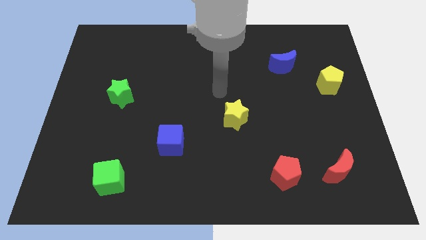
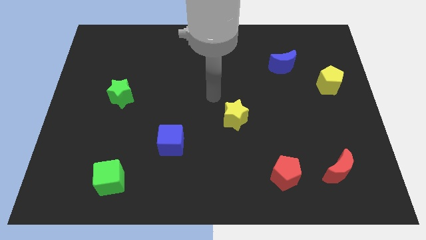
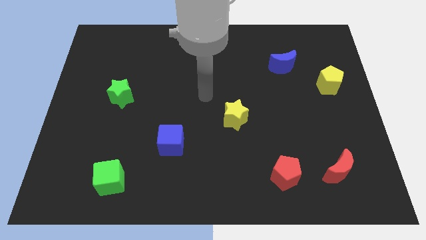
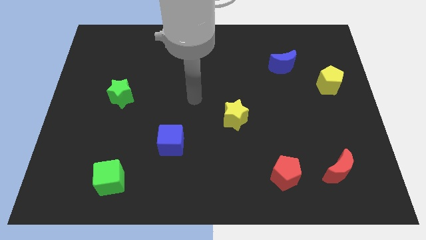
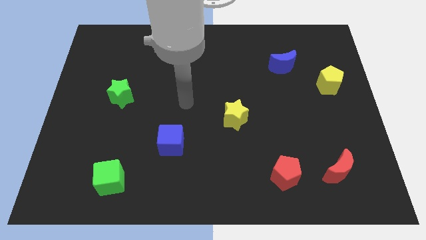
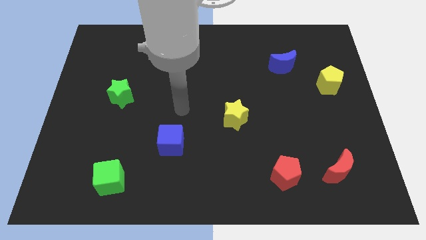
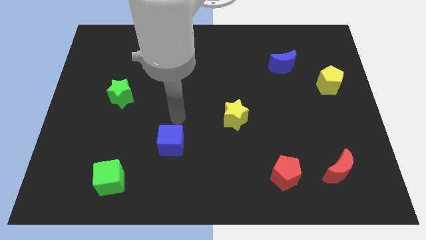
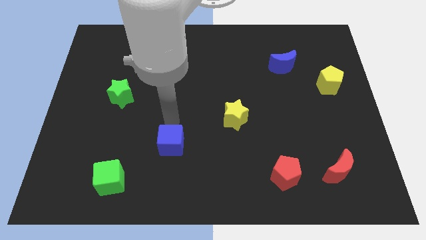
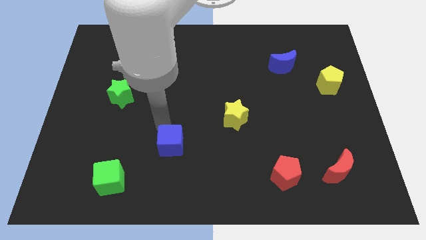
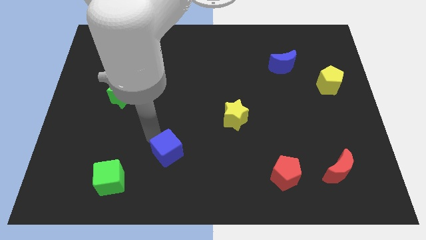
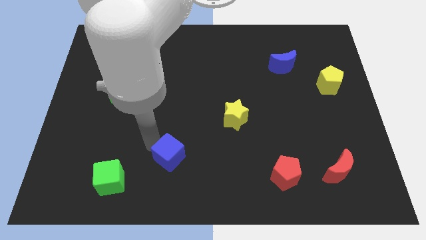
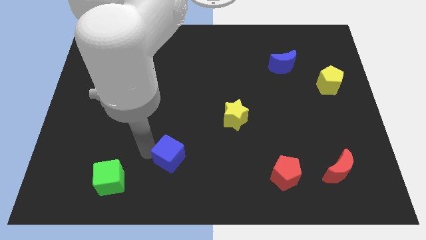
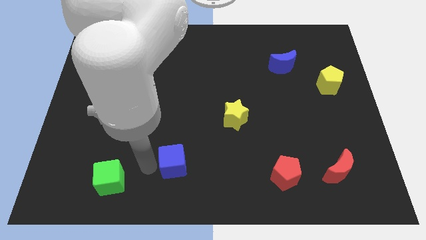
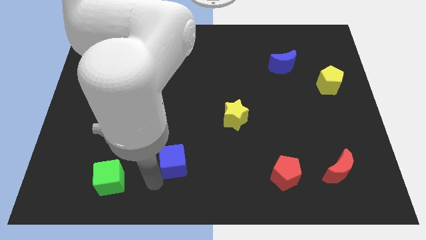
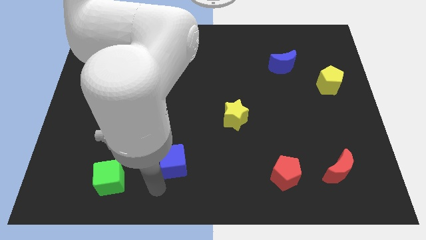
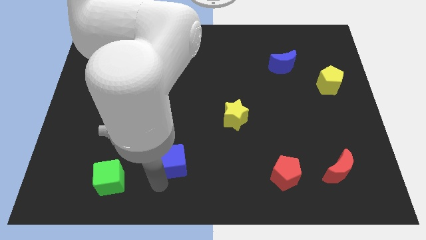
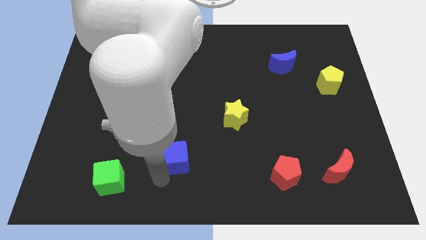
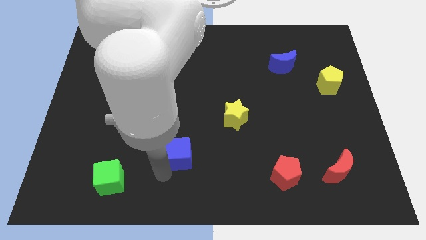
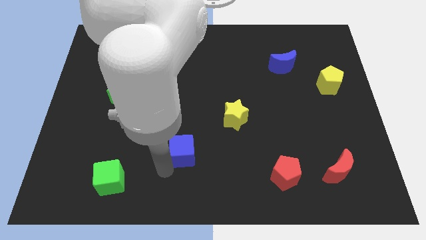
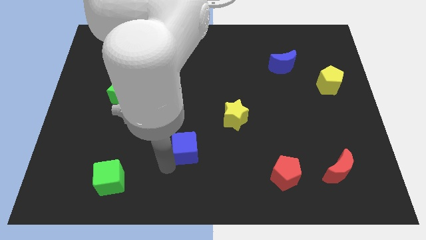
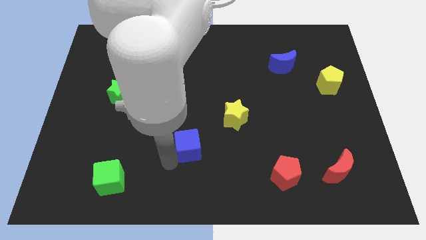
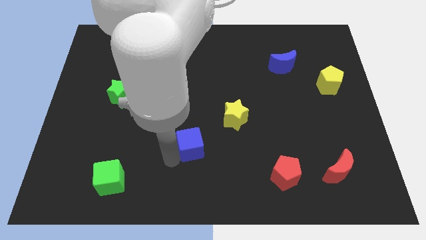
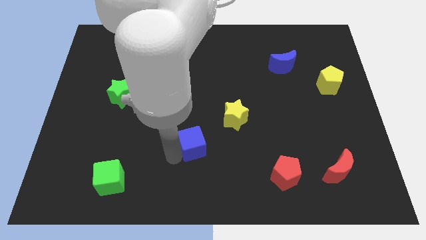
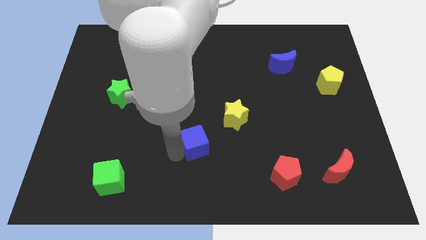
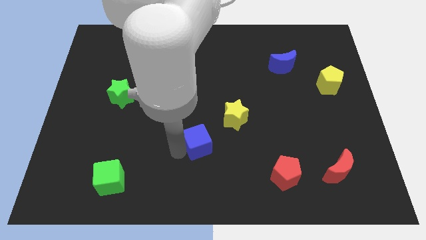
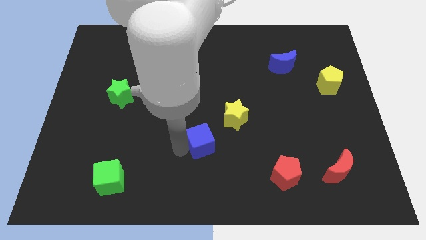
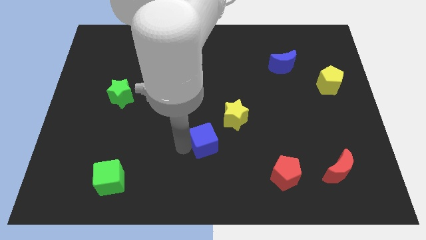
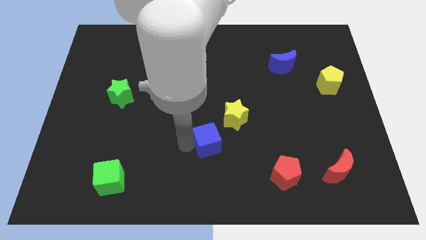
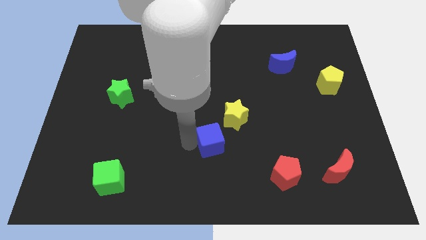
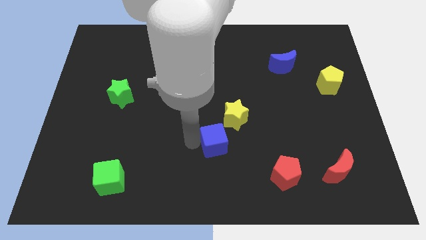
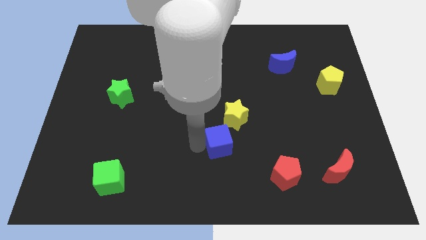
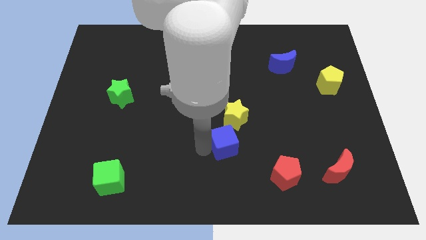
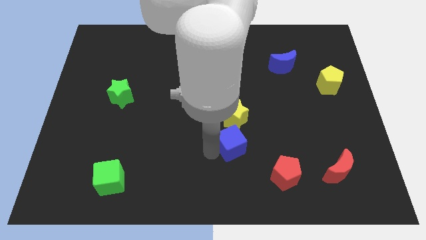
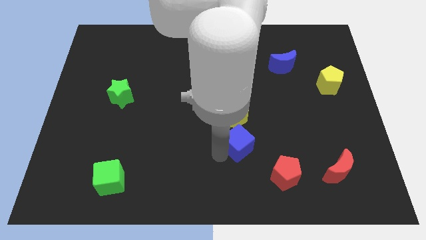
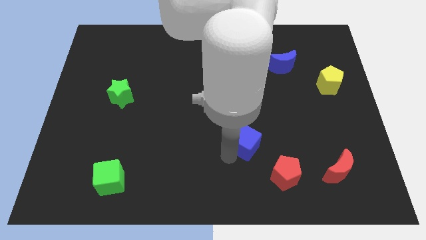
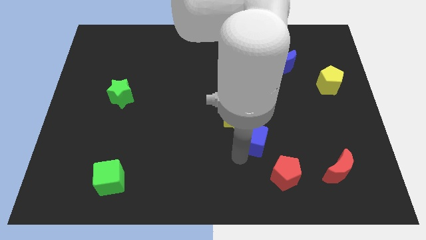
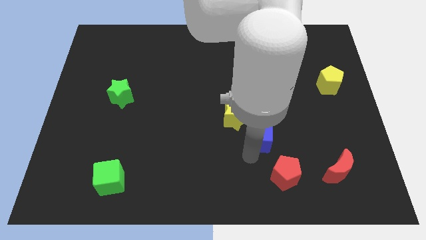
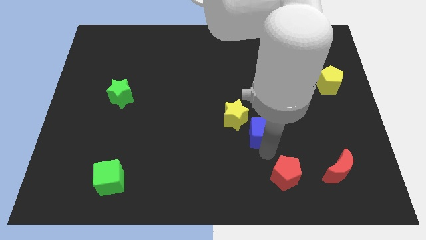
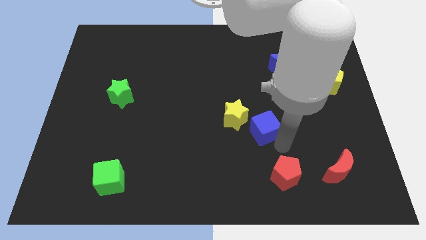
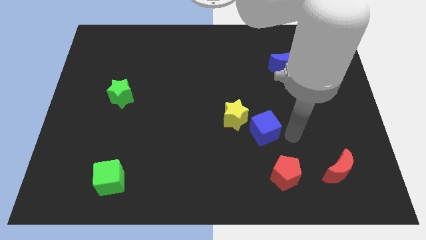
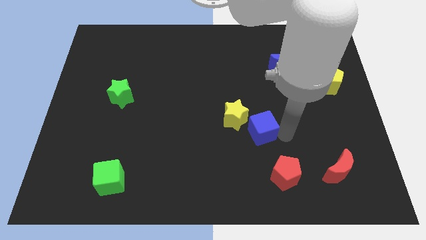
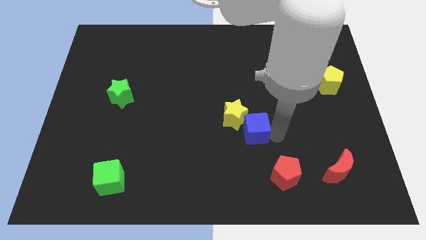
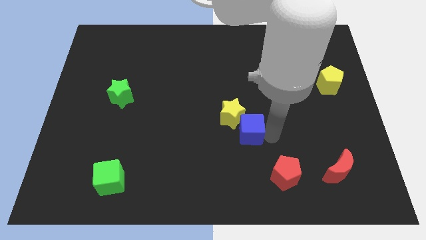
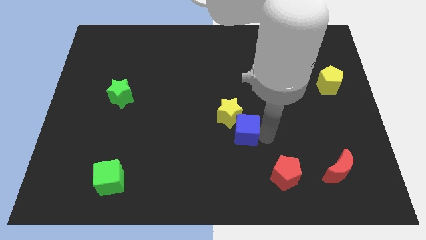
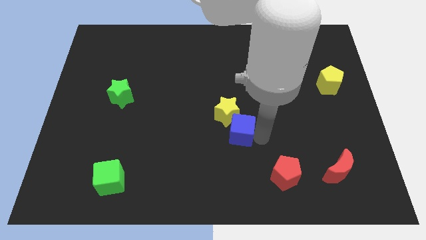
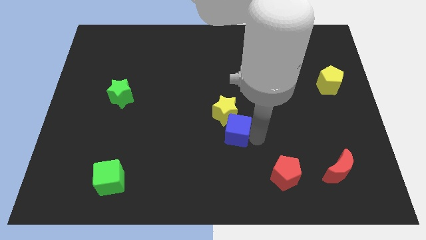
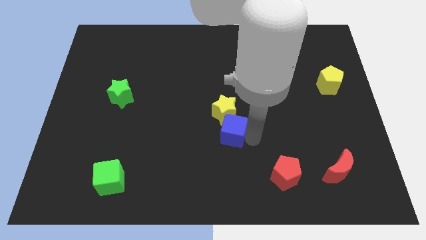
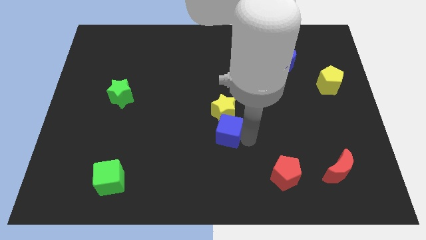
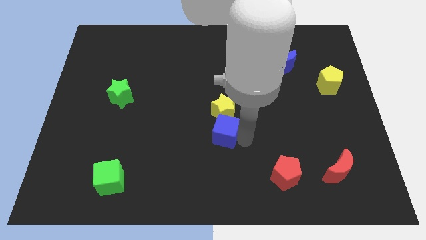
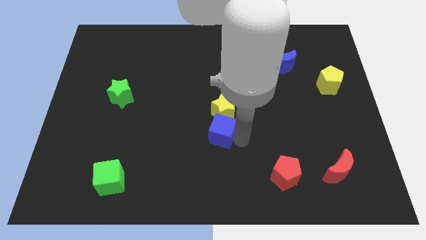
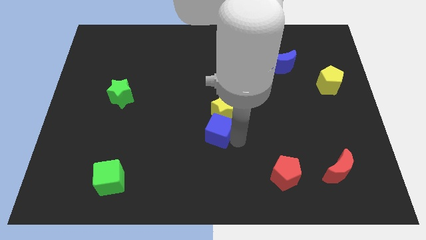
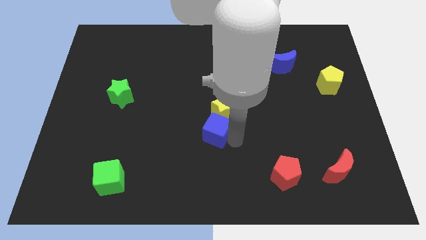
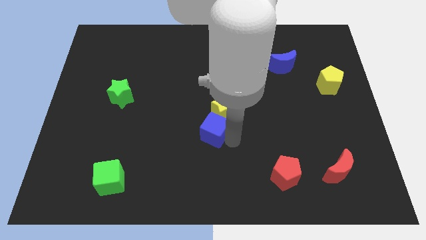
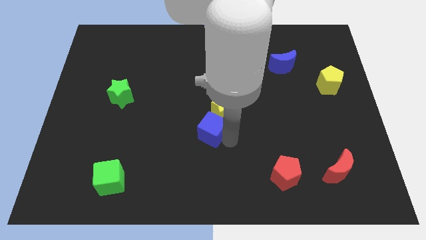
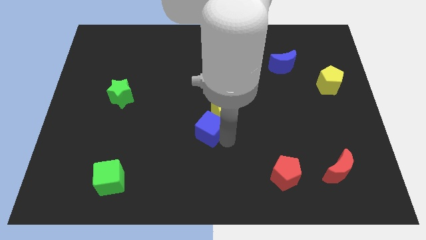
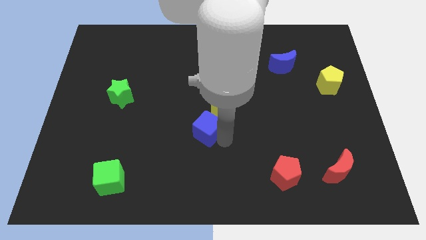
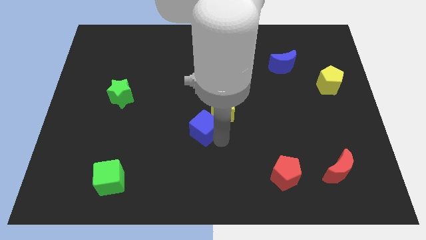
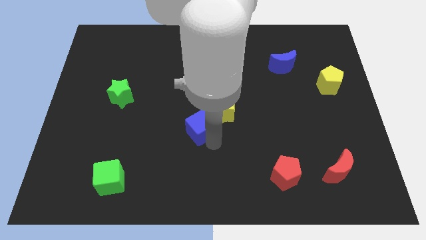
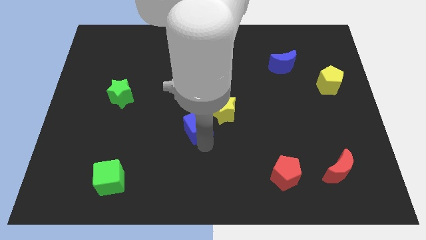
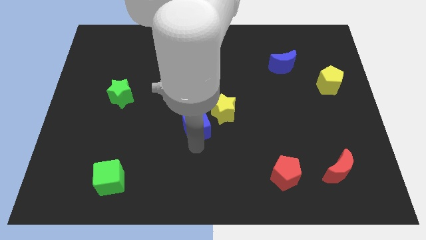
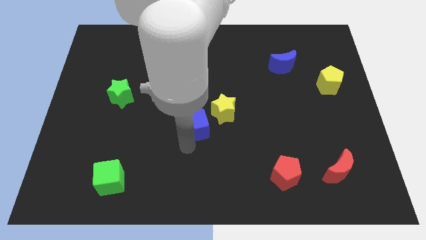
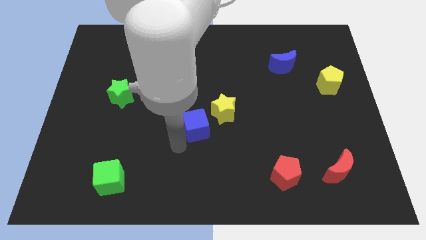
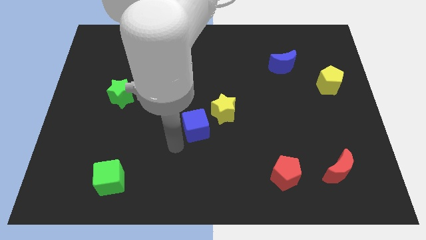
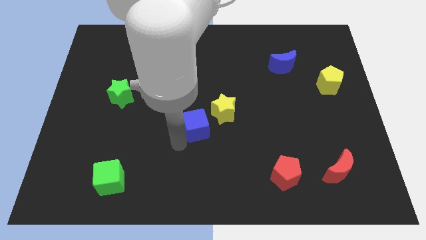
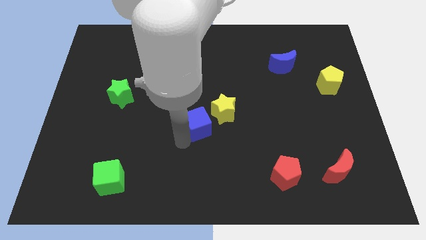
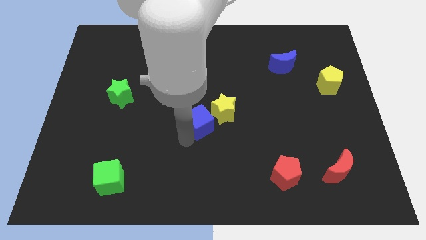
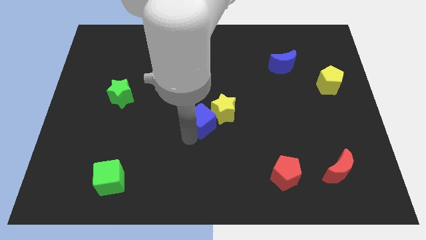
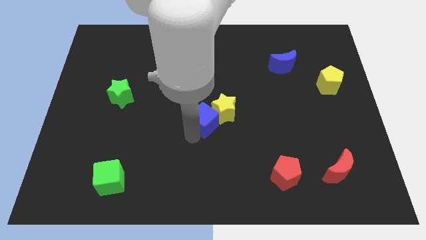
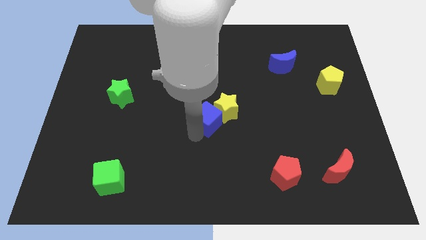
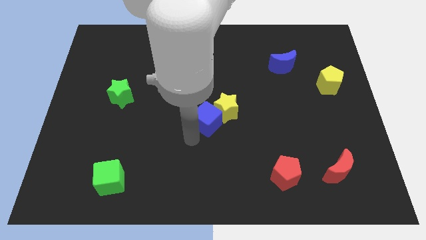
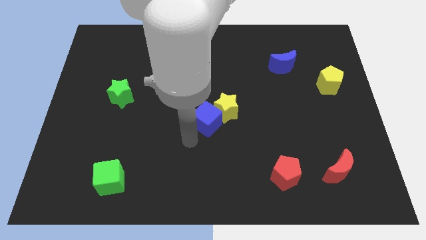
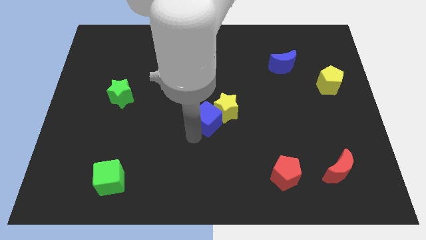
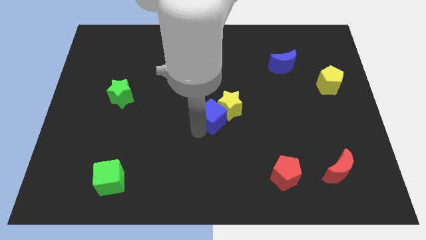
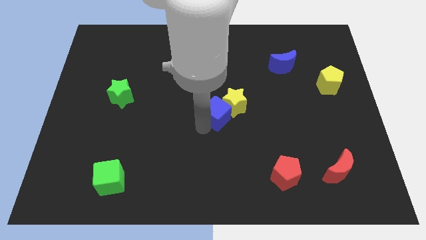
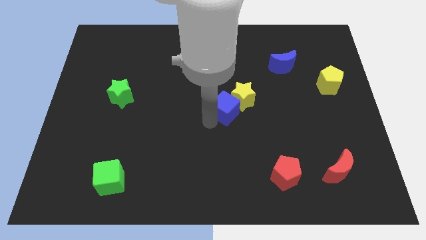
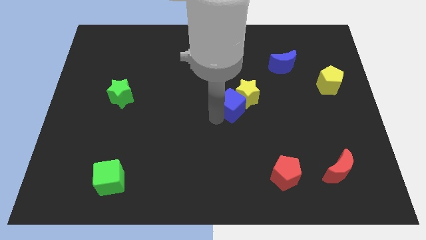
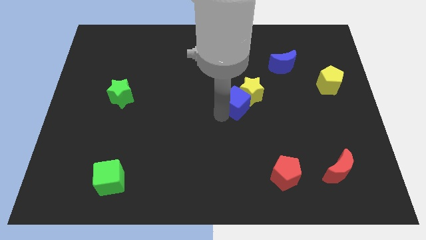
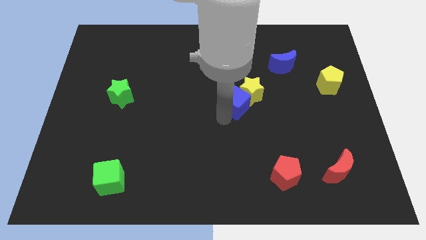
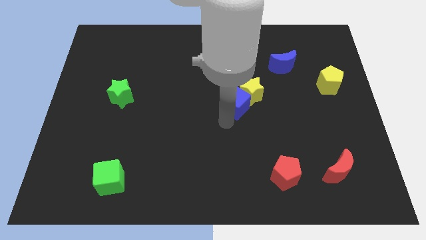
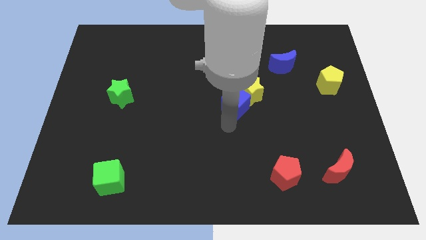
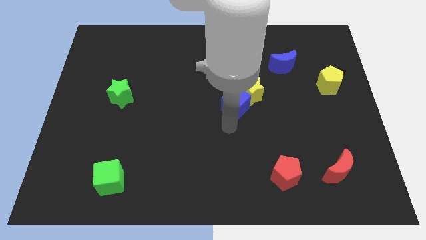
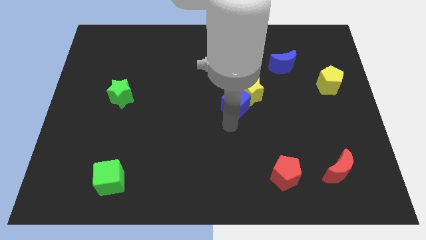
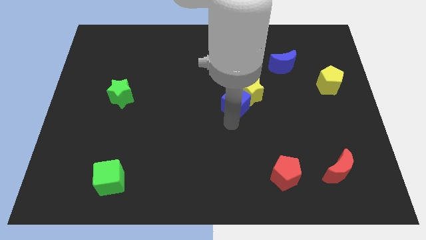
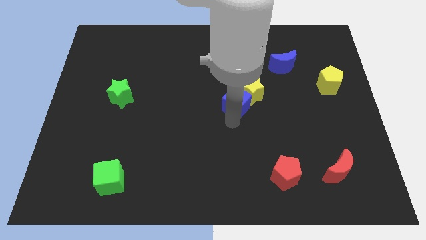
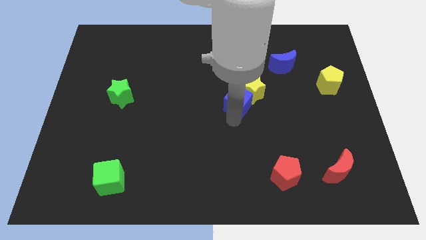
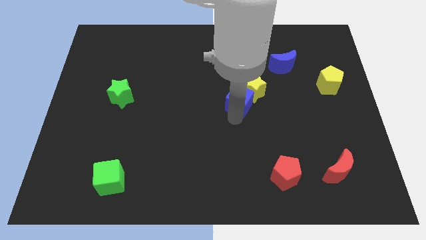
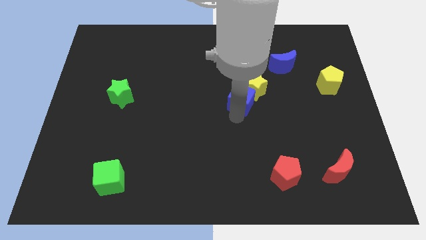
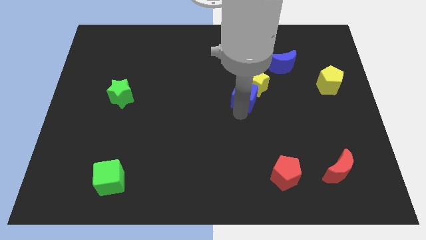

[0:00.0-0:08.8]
move the blue cube up and to the right
